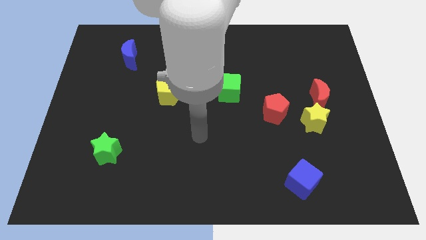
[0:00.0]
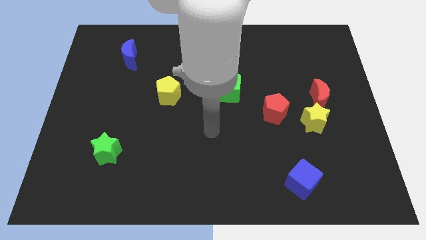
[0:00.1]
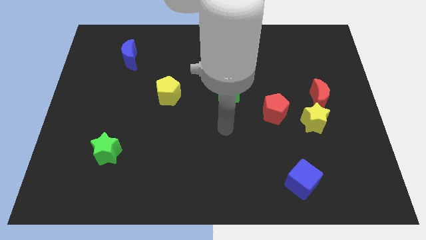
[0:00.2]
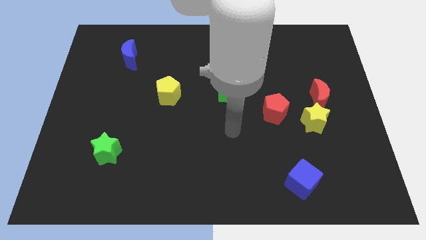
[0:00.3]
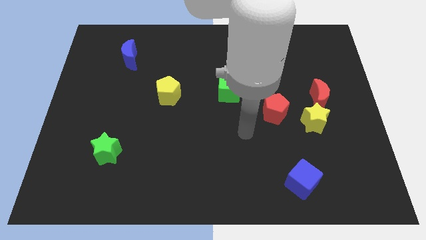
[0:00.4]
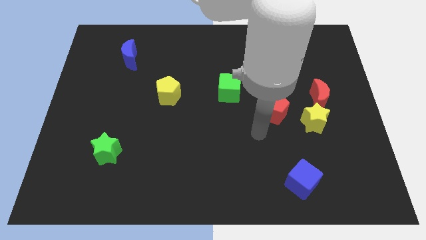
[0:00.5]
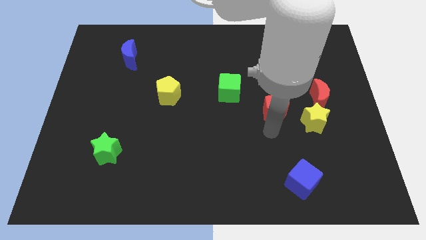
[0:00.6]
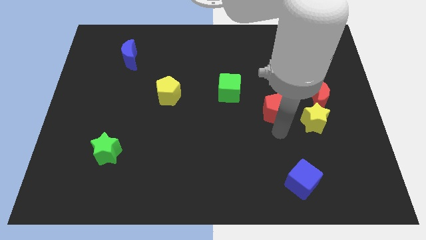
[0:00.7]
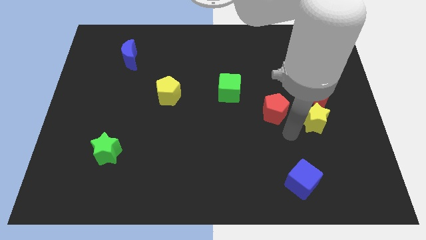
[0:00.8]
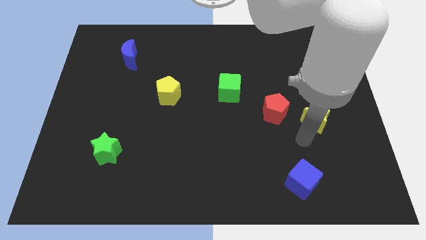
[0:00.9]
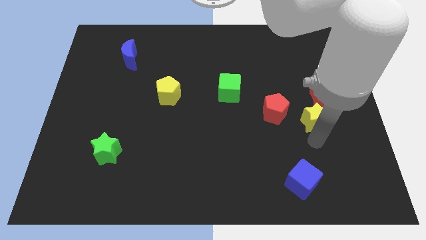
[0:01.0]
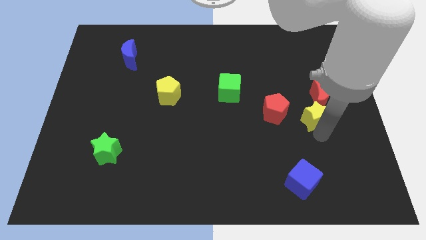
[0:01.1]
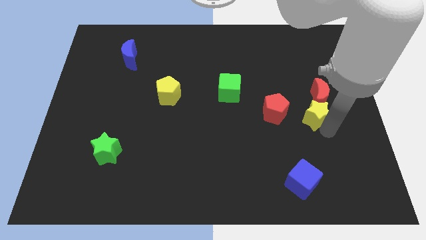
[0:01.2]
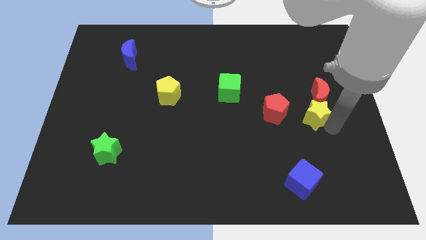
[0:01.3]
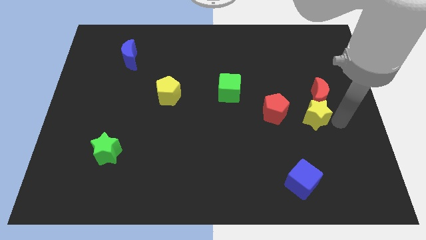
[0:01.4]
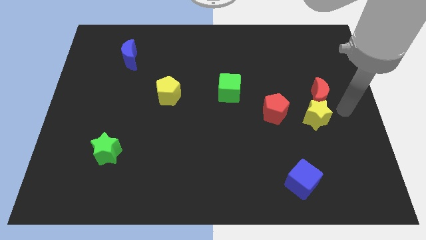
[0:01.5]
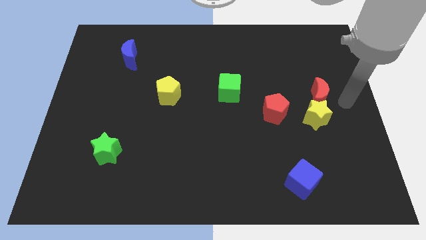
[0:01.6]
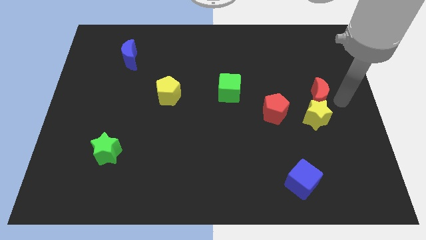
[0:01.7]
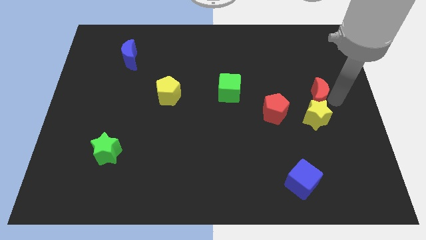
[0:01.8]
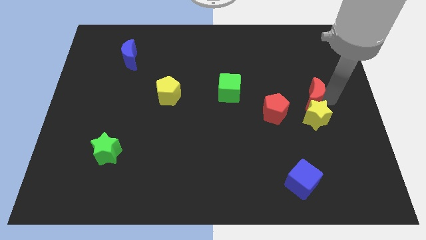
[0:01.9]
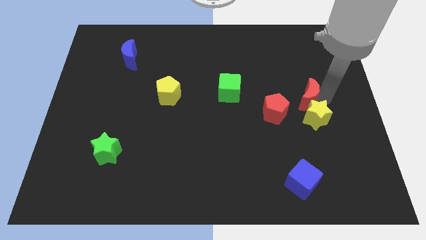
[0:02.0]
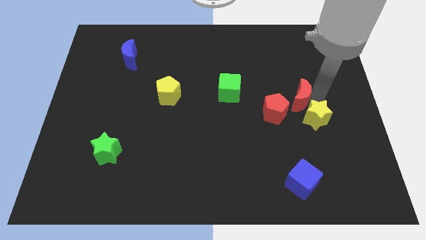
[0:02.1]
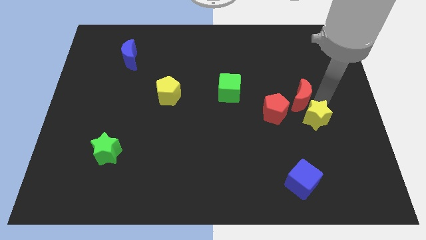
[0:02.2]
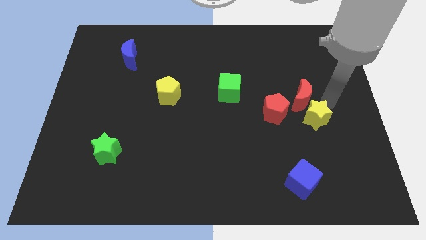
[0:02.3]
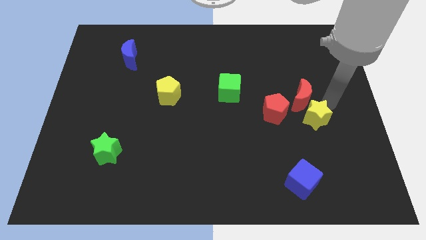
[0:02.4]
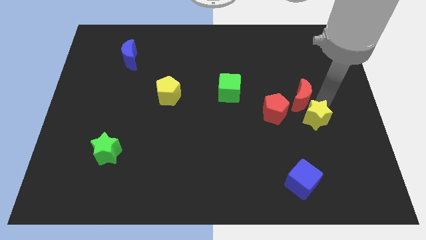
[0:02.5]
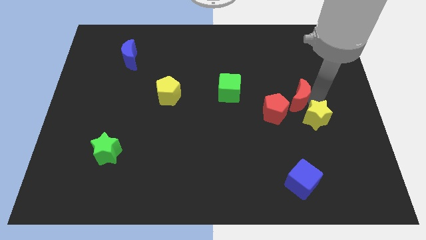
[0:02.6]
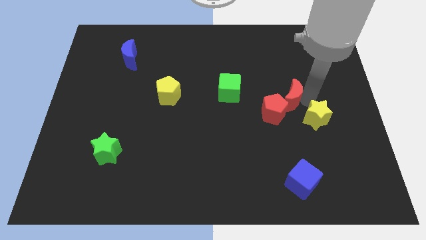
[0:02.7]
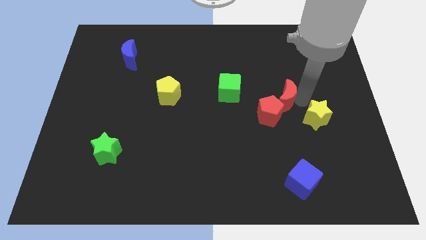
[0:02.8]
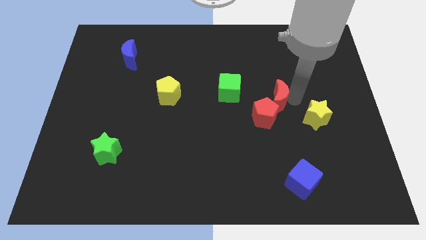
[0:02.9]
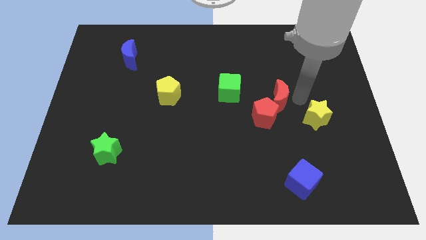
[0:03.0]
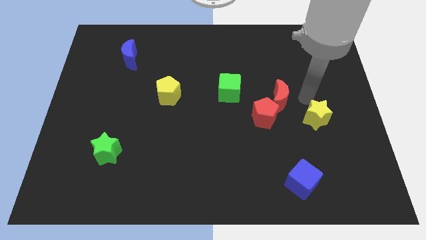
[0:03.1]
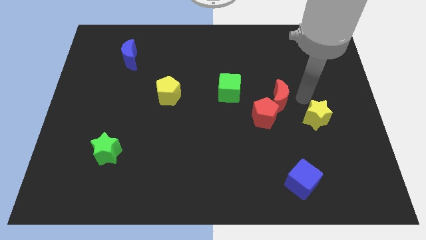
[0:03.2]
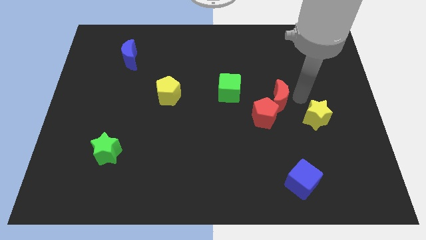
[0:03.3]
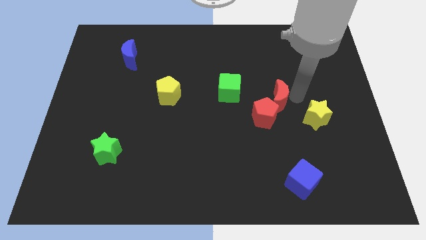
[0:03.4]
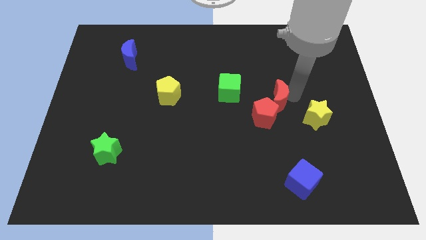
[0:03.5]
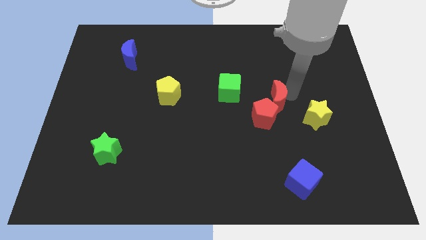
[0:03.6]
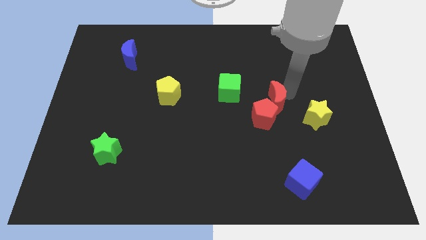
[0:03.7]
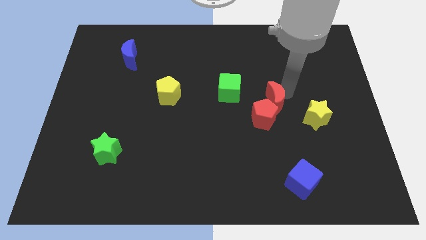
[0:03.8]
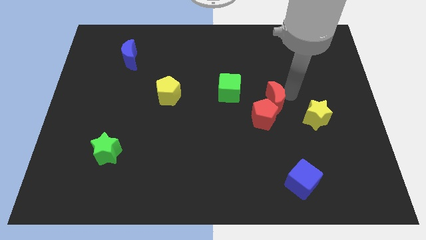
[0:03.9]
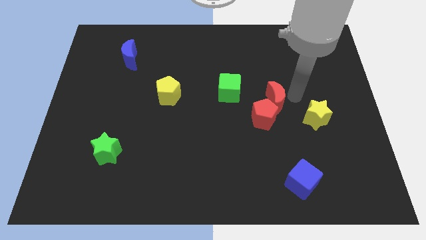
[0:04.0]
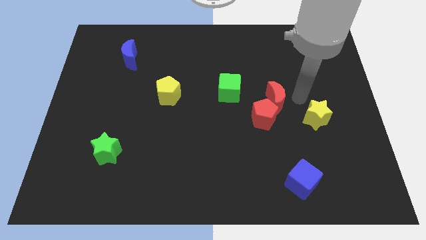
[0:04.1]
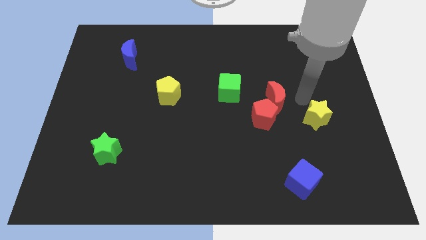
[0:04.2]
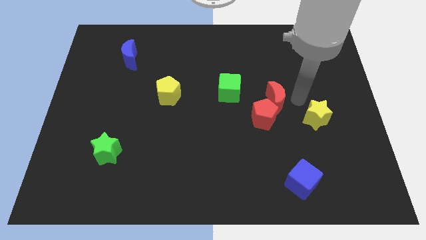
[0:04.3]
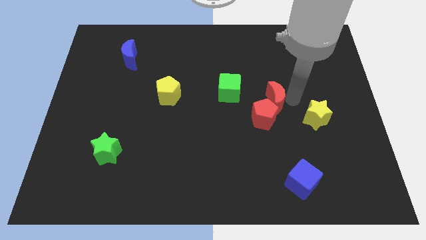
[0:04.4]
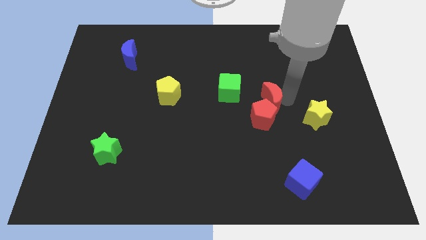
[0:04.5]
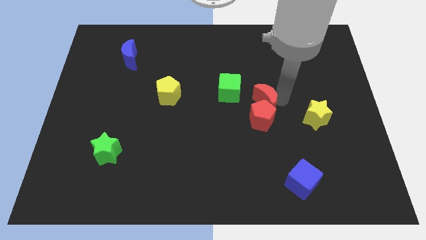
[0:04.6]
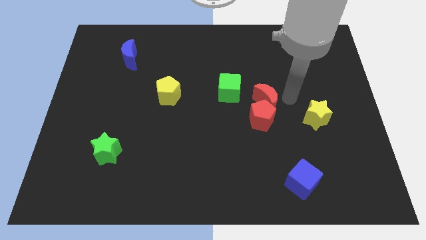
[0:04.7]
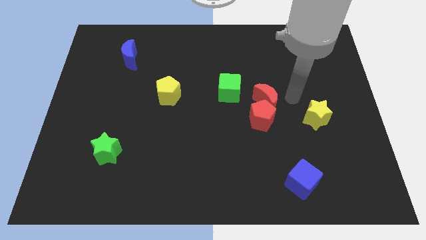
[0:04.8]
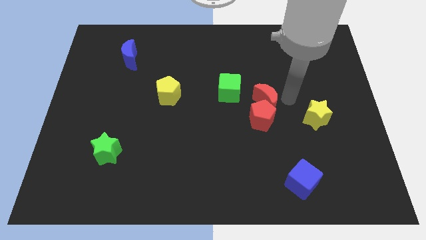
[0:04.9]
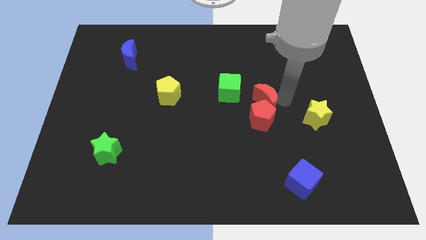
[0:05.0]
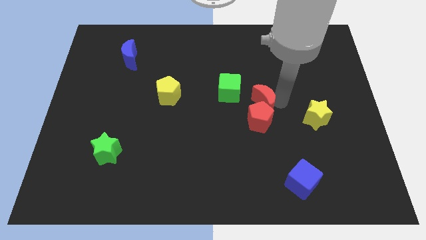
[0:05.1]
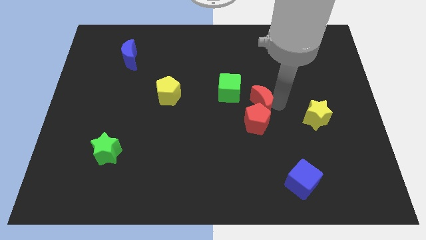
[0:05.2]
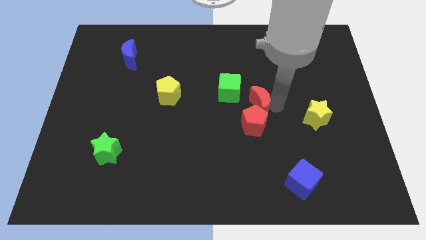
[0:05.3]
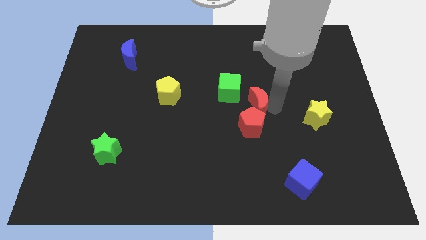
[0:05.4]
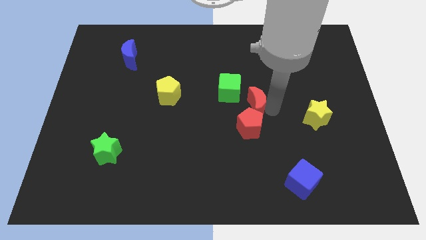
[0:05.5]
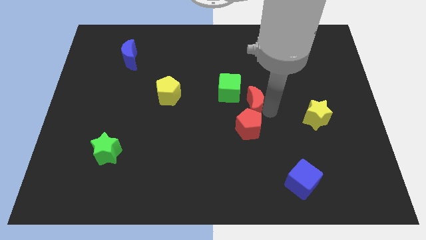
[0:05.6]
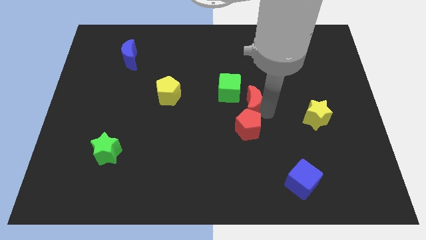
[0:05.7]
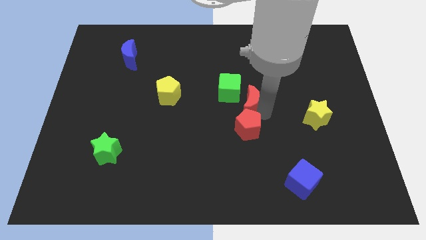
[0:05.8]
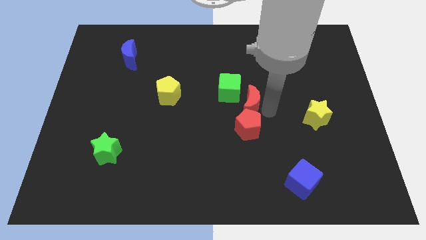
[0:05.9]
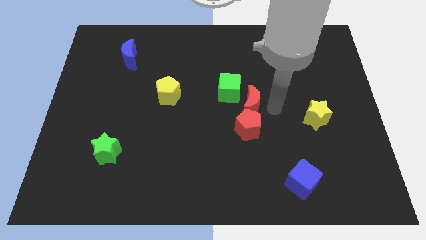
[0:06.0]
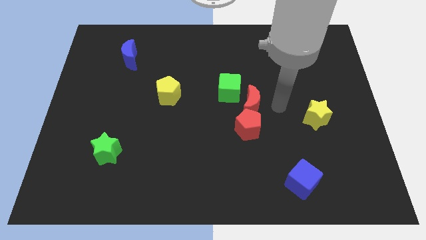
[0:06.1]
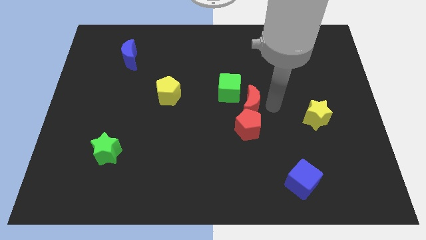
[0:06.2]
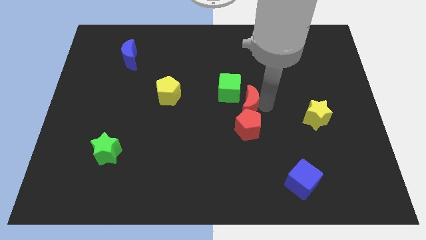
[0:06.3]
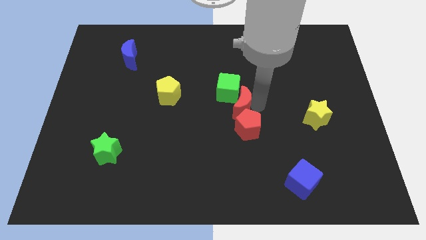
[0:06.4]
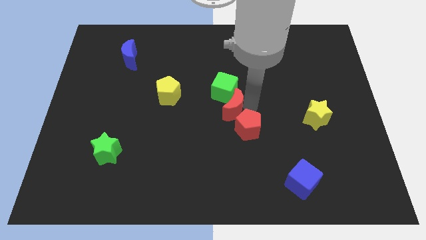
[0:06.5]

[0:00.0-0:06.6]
push the red moon to the left

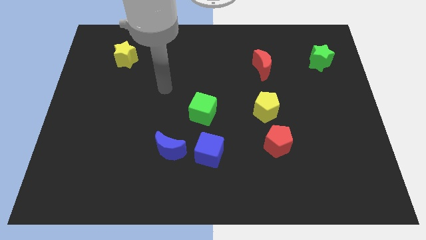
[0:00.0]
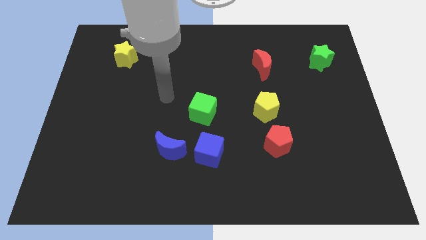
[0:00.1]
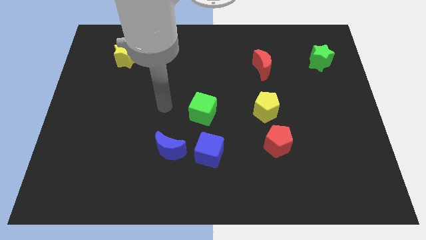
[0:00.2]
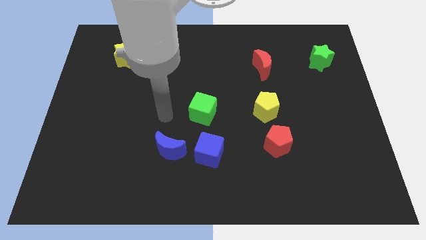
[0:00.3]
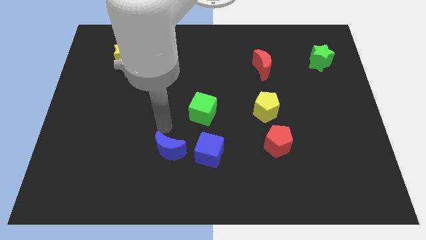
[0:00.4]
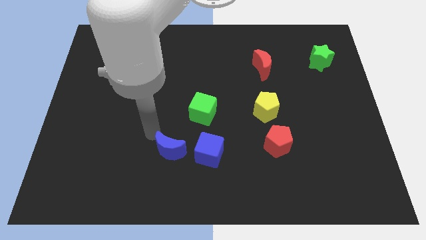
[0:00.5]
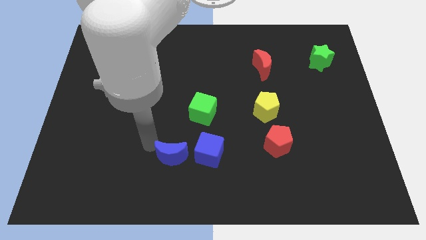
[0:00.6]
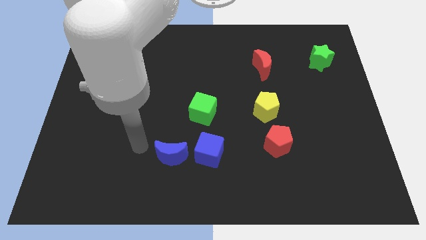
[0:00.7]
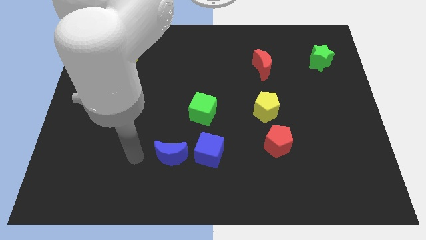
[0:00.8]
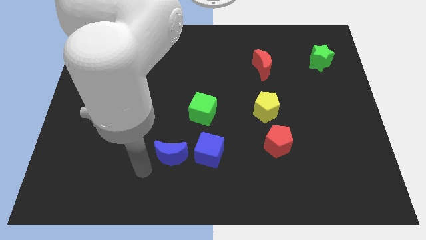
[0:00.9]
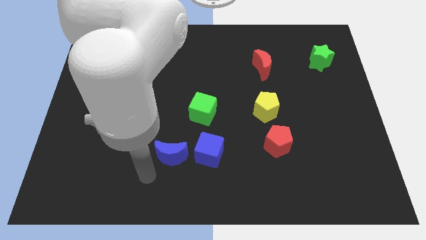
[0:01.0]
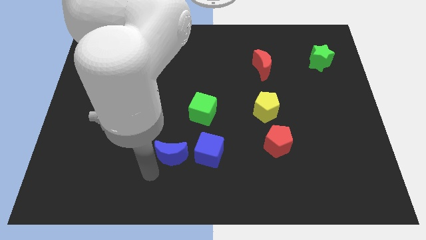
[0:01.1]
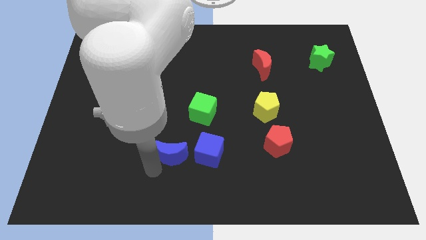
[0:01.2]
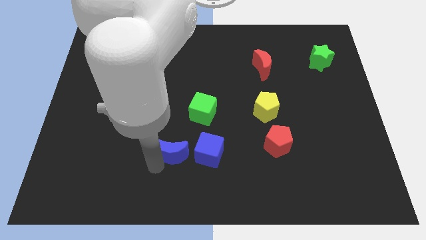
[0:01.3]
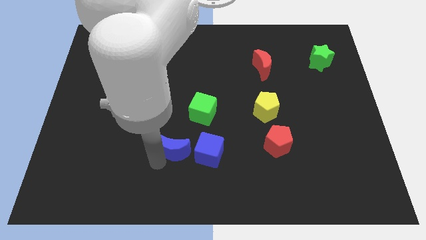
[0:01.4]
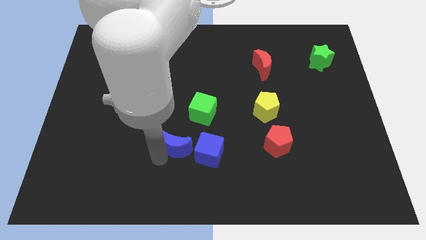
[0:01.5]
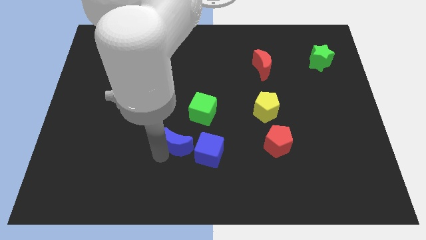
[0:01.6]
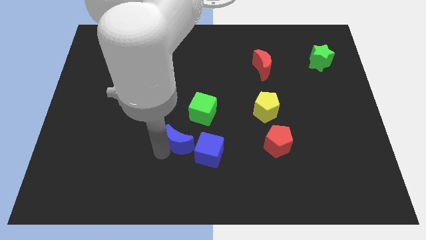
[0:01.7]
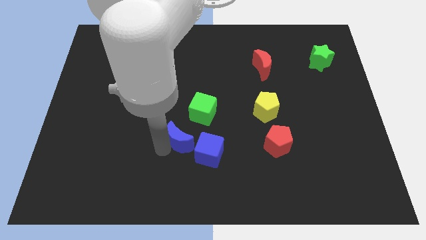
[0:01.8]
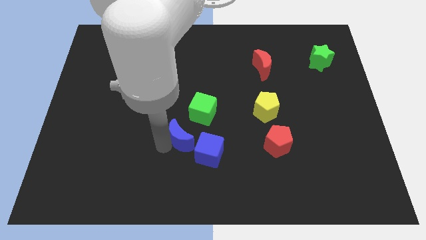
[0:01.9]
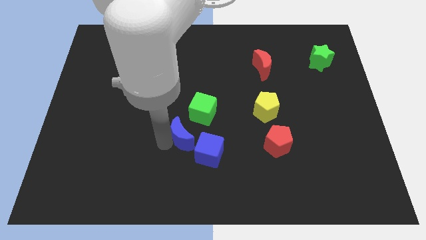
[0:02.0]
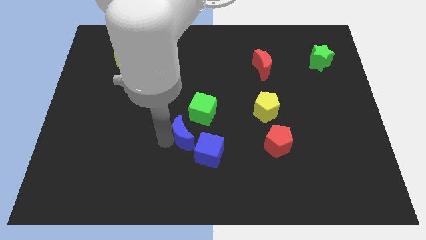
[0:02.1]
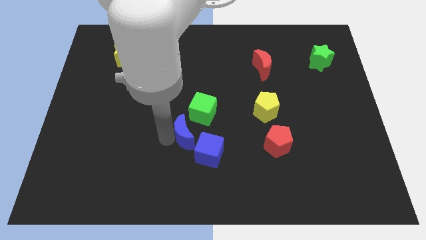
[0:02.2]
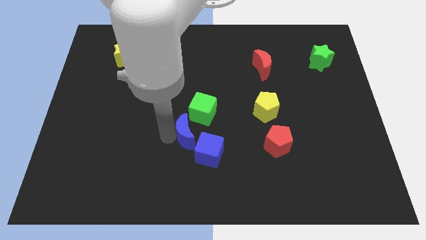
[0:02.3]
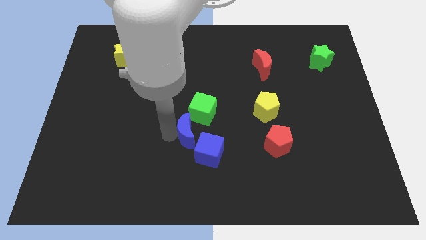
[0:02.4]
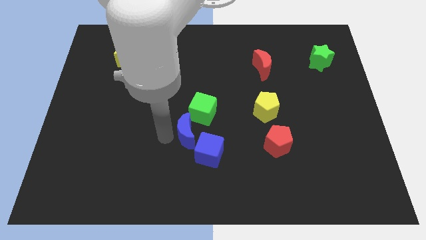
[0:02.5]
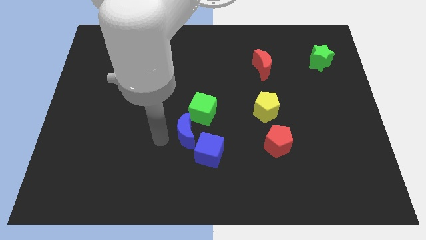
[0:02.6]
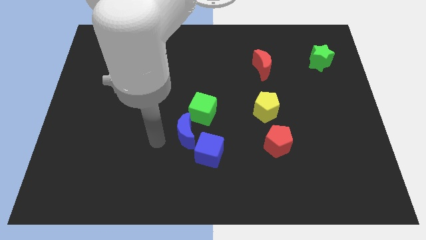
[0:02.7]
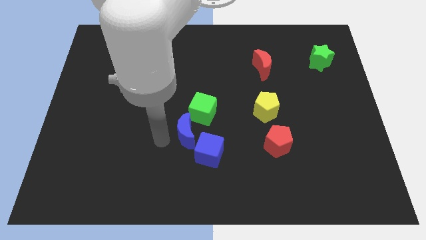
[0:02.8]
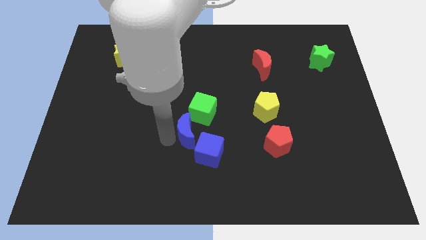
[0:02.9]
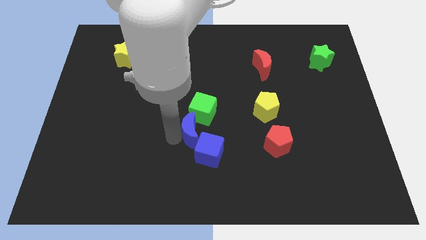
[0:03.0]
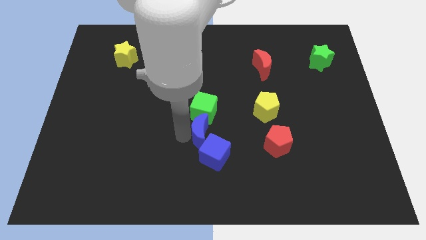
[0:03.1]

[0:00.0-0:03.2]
push the blue moon up and to the right a little bit
